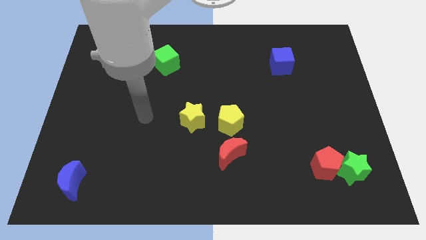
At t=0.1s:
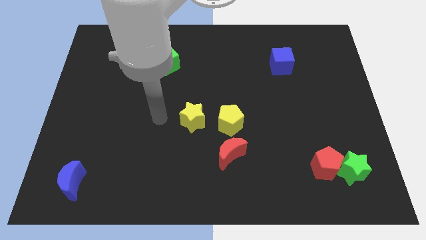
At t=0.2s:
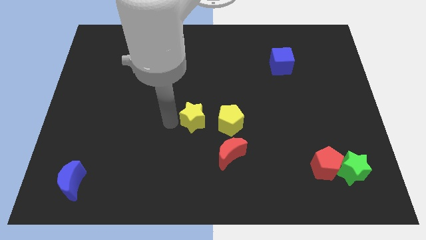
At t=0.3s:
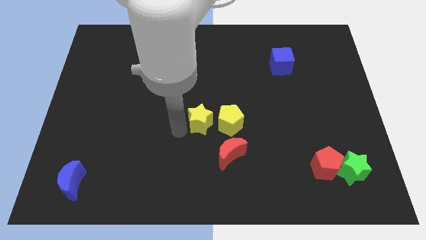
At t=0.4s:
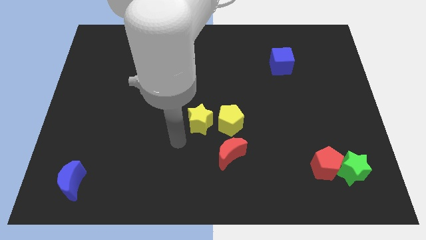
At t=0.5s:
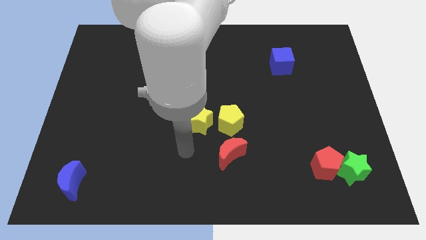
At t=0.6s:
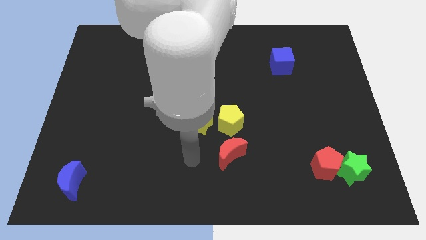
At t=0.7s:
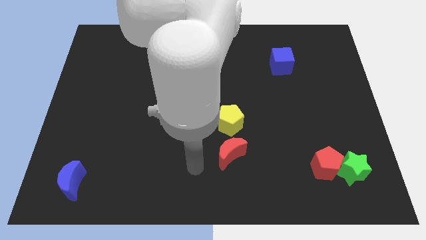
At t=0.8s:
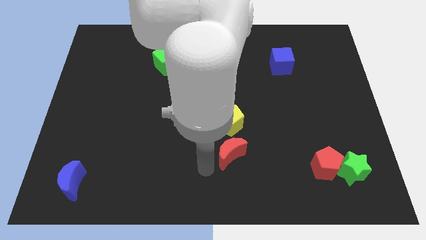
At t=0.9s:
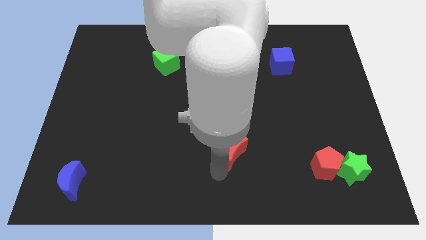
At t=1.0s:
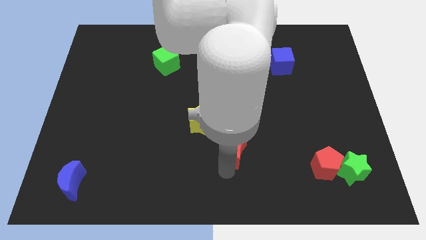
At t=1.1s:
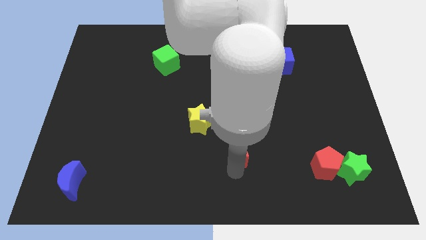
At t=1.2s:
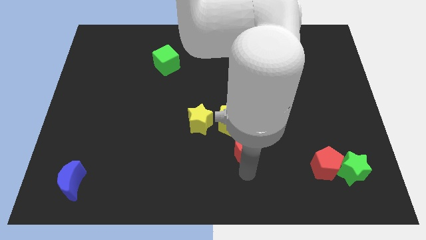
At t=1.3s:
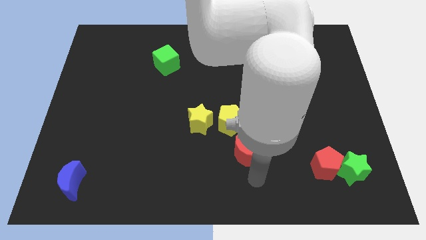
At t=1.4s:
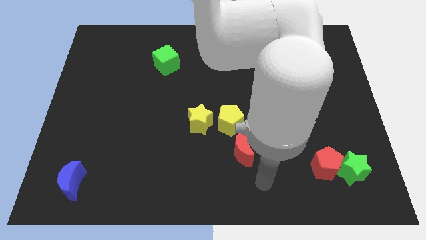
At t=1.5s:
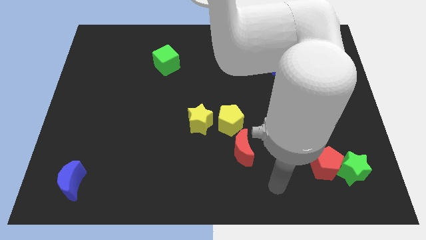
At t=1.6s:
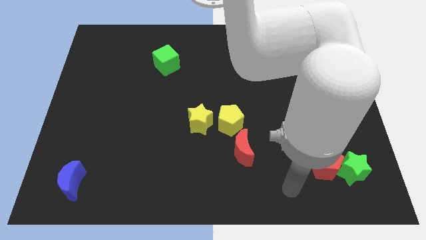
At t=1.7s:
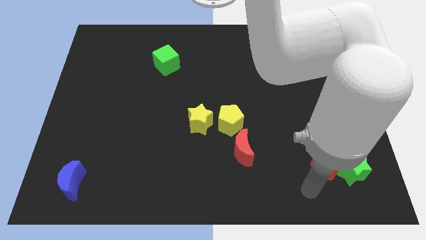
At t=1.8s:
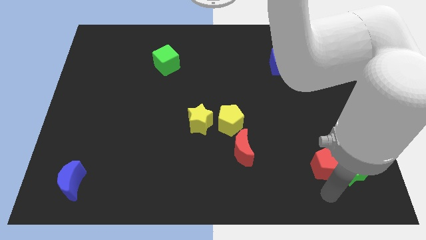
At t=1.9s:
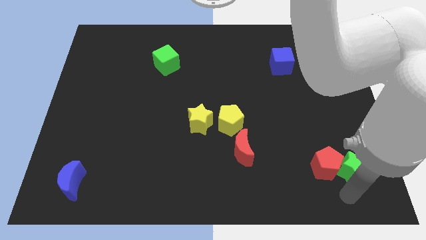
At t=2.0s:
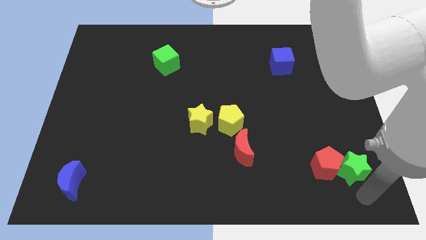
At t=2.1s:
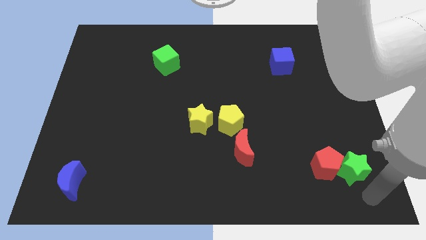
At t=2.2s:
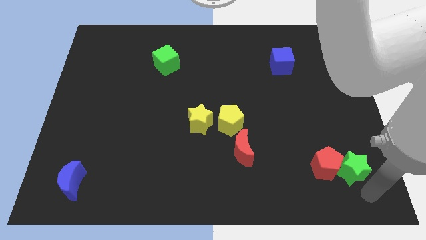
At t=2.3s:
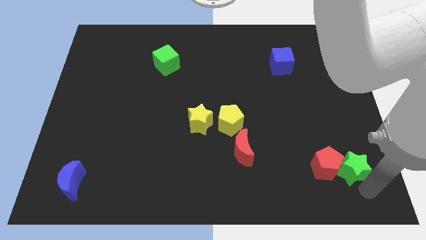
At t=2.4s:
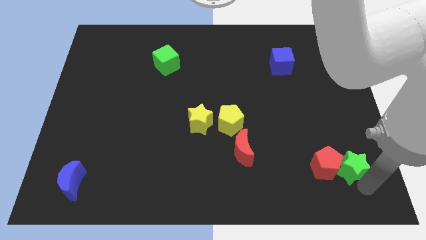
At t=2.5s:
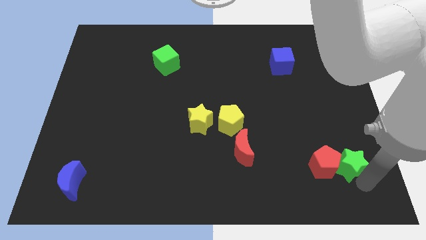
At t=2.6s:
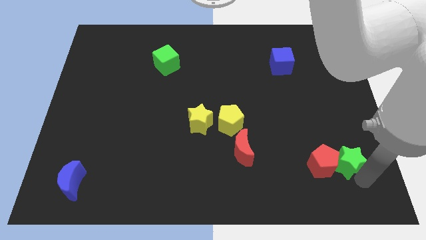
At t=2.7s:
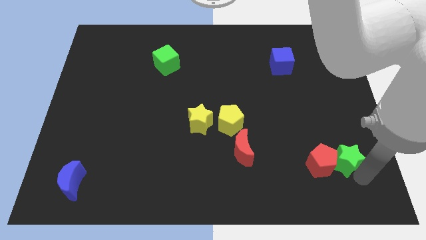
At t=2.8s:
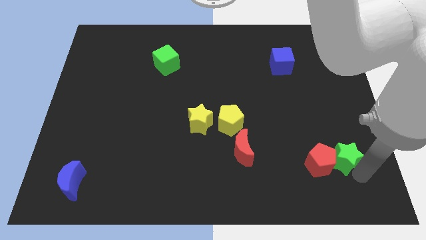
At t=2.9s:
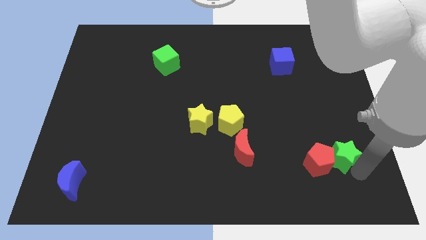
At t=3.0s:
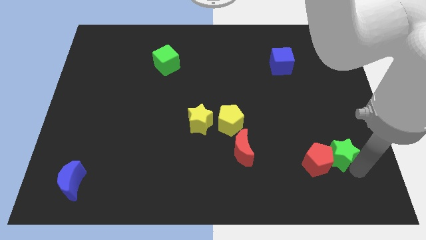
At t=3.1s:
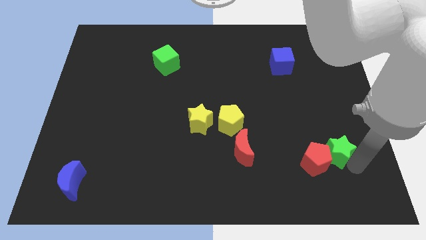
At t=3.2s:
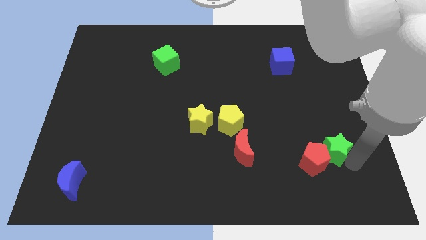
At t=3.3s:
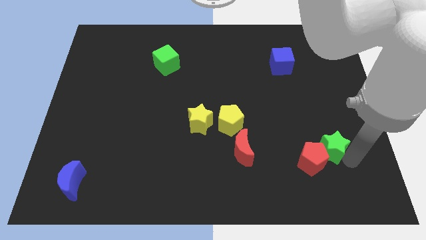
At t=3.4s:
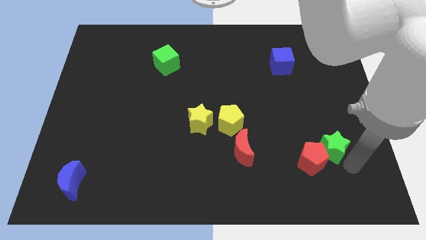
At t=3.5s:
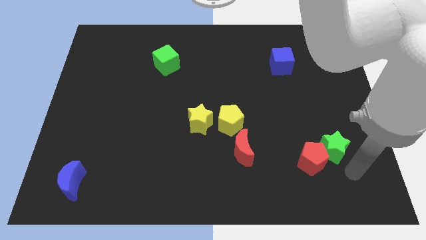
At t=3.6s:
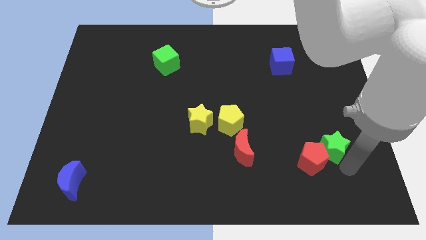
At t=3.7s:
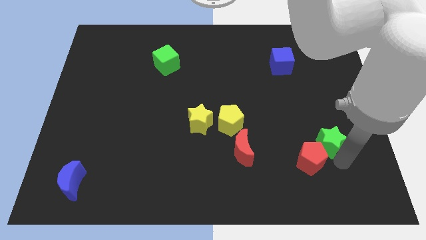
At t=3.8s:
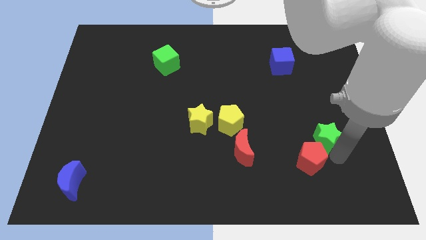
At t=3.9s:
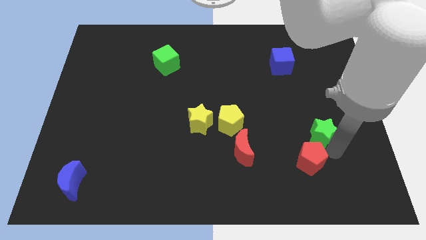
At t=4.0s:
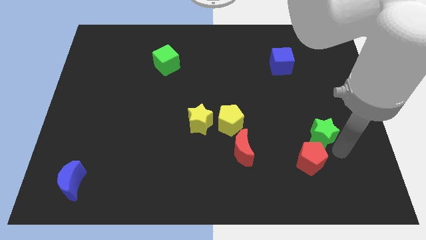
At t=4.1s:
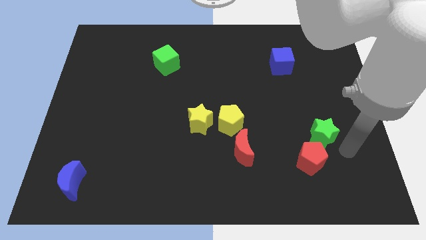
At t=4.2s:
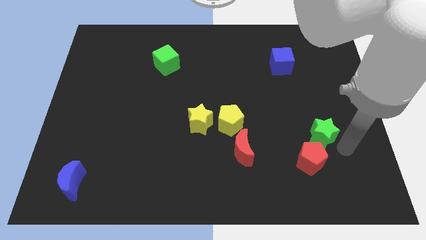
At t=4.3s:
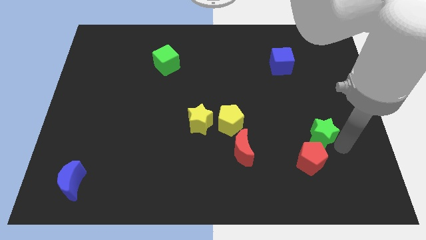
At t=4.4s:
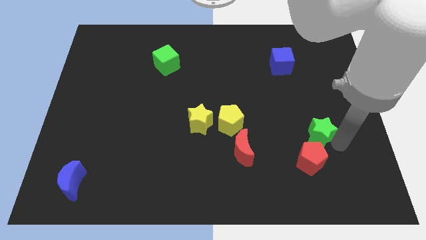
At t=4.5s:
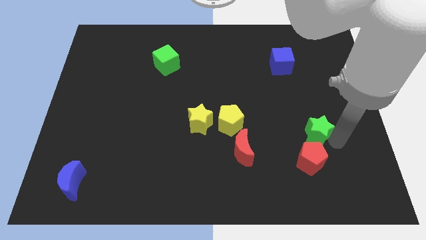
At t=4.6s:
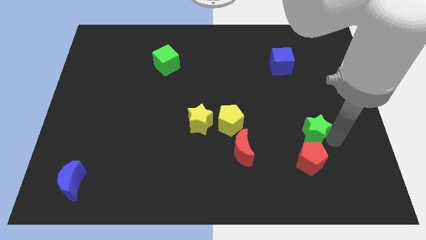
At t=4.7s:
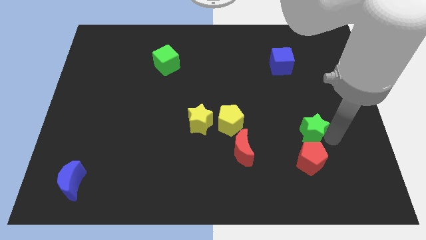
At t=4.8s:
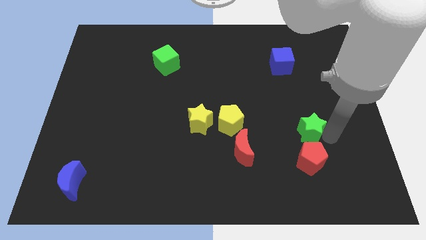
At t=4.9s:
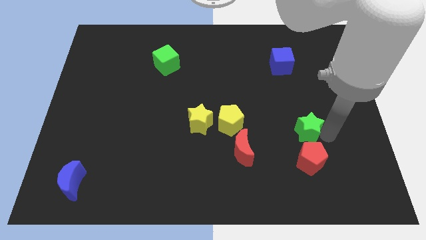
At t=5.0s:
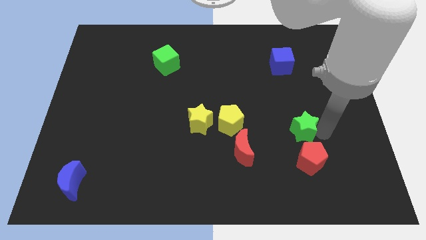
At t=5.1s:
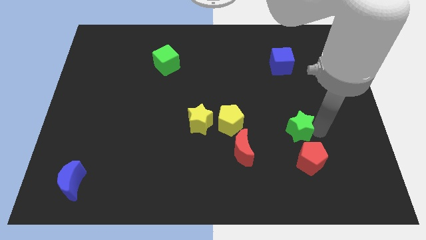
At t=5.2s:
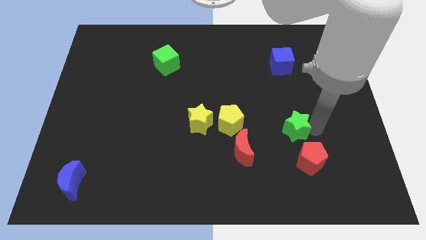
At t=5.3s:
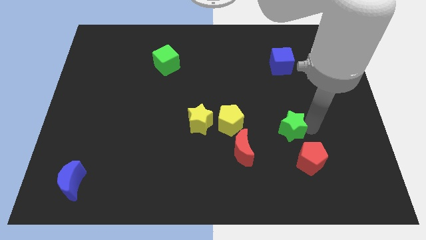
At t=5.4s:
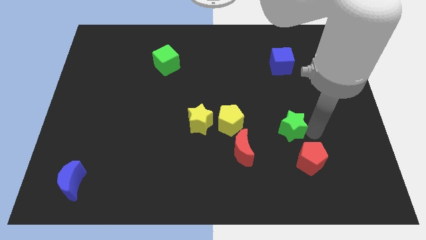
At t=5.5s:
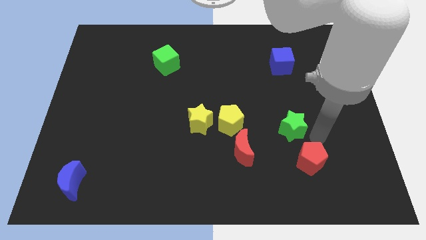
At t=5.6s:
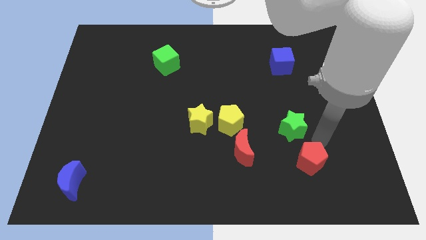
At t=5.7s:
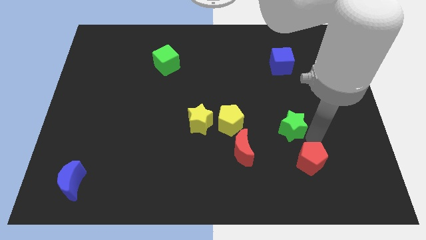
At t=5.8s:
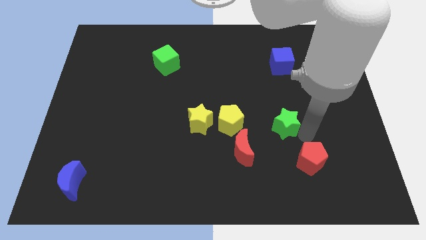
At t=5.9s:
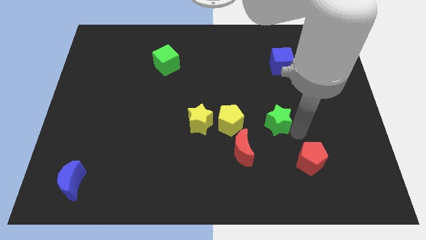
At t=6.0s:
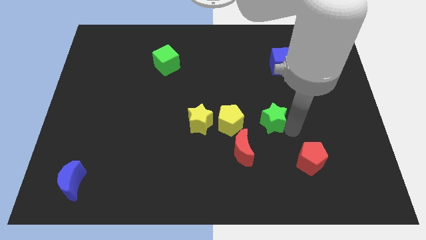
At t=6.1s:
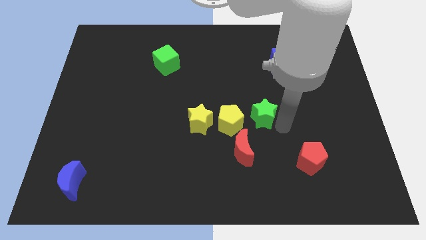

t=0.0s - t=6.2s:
slide the green star to the center of the board
